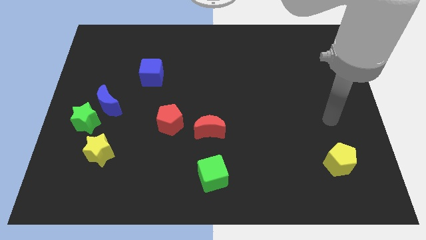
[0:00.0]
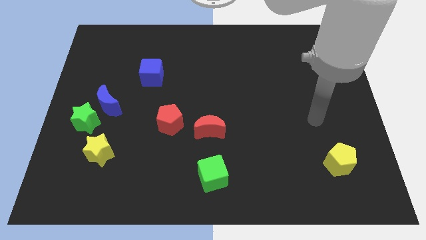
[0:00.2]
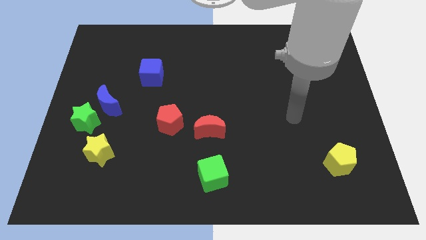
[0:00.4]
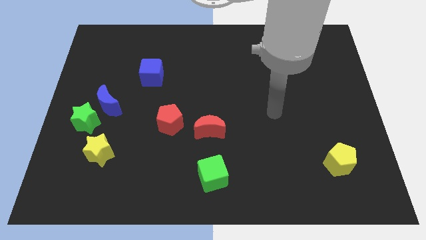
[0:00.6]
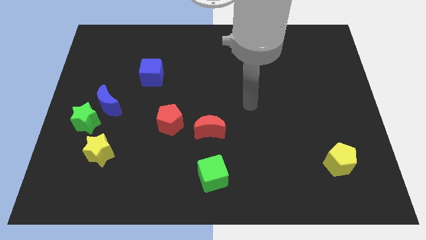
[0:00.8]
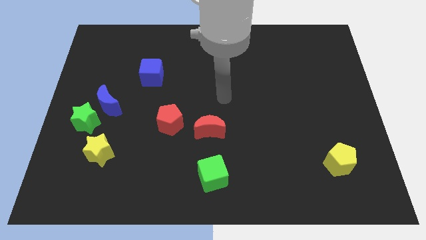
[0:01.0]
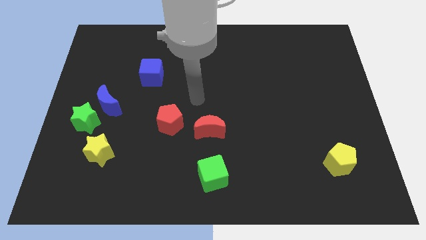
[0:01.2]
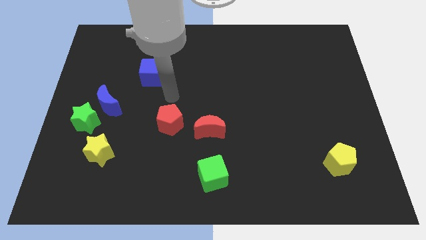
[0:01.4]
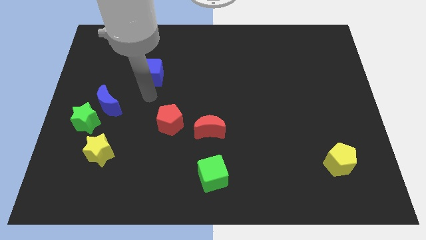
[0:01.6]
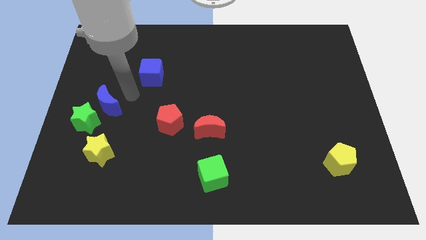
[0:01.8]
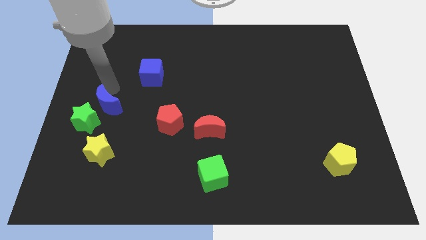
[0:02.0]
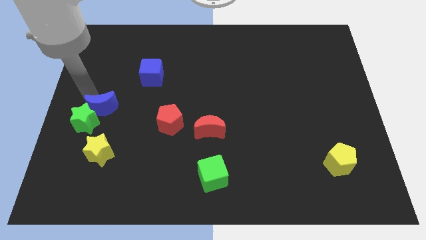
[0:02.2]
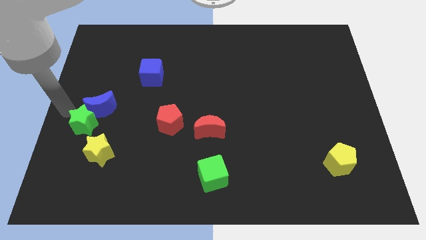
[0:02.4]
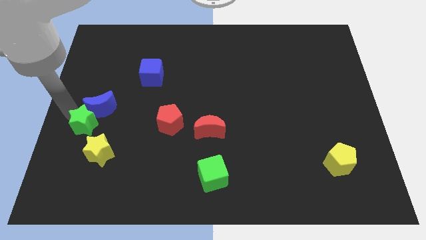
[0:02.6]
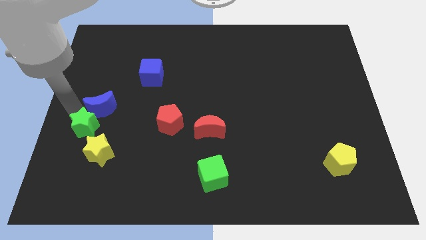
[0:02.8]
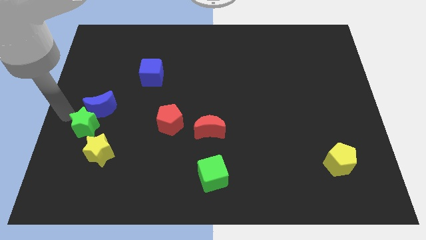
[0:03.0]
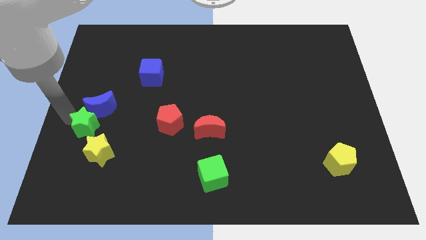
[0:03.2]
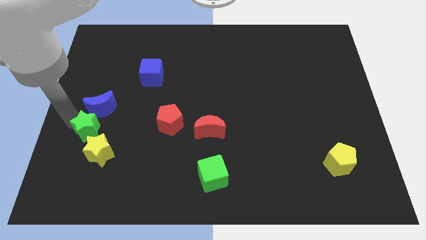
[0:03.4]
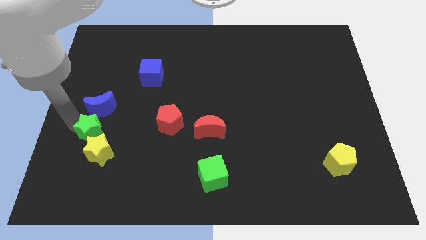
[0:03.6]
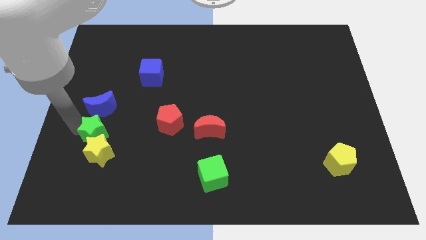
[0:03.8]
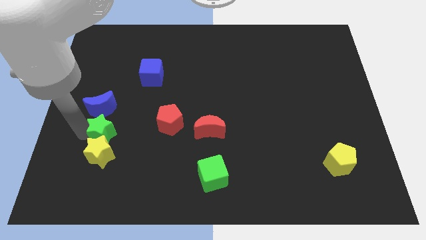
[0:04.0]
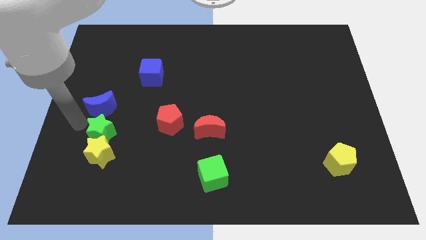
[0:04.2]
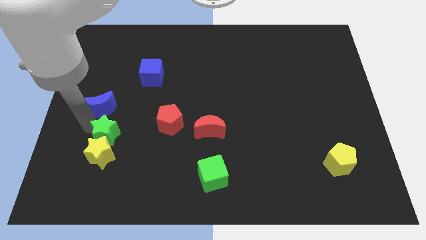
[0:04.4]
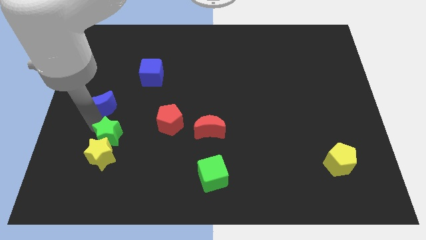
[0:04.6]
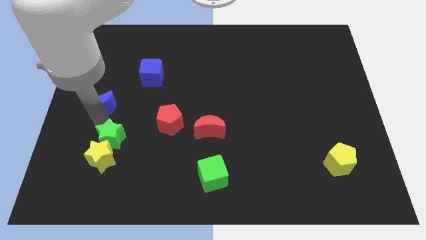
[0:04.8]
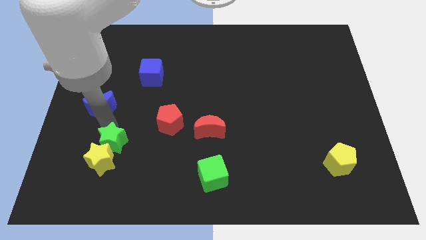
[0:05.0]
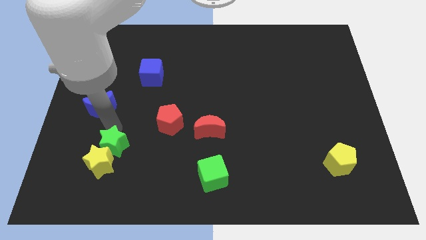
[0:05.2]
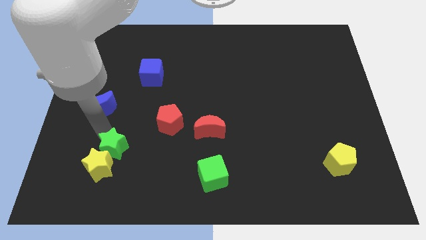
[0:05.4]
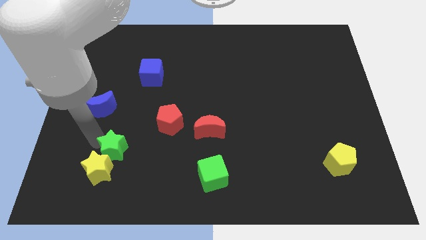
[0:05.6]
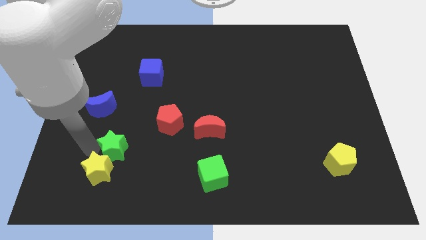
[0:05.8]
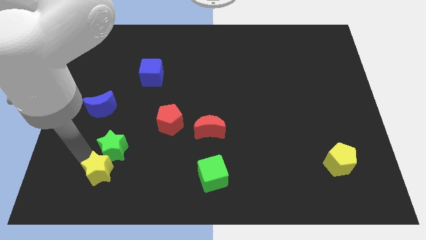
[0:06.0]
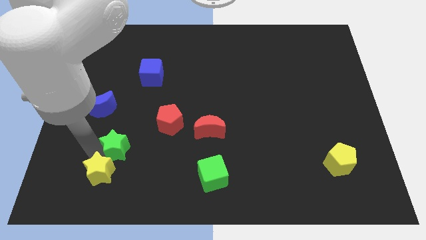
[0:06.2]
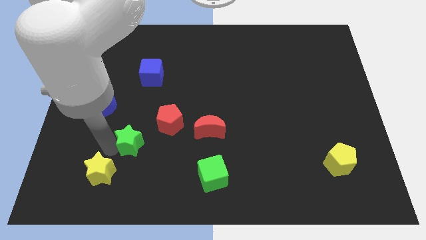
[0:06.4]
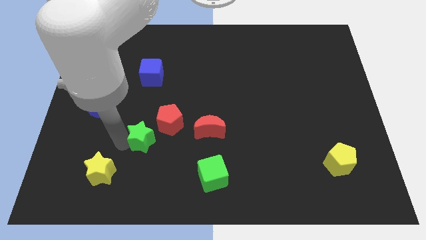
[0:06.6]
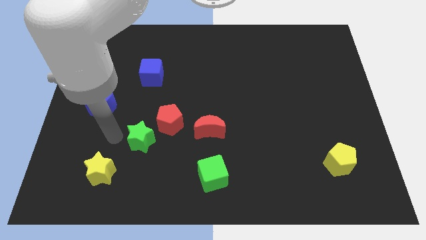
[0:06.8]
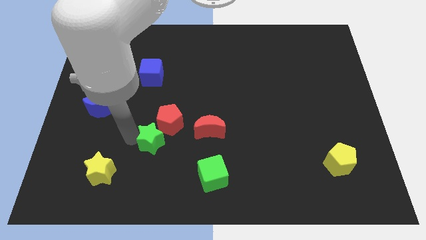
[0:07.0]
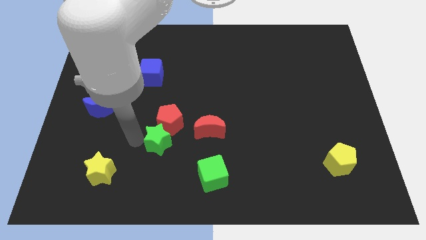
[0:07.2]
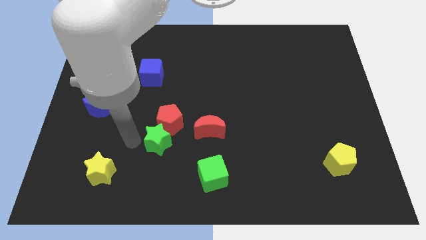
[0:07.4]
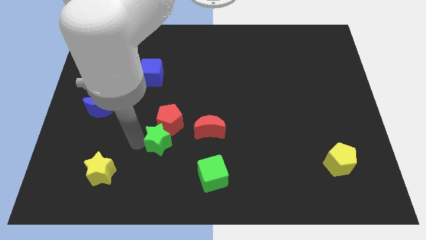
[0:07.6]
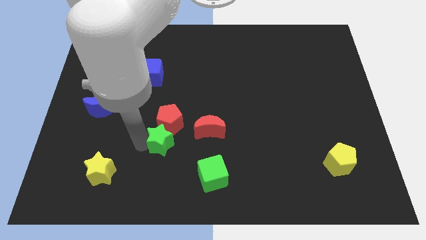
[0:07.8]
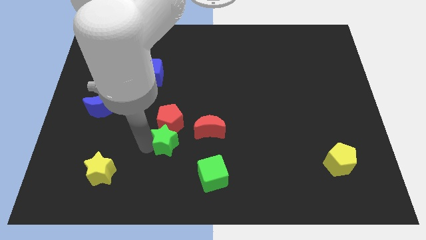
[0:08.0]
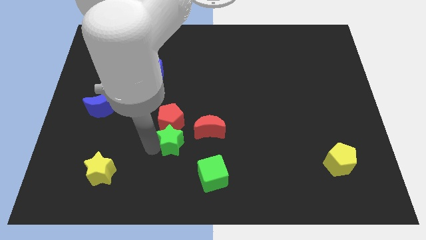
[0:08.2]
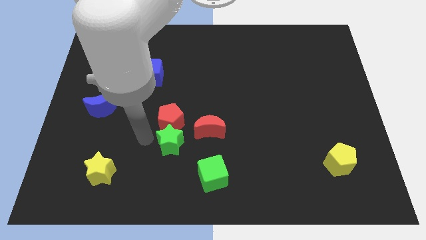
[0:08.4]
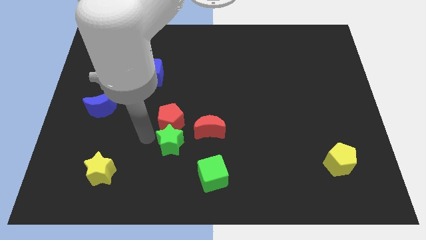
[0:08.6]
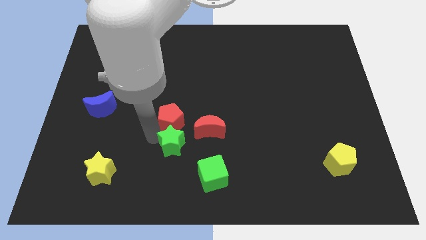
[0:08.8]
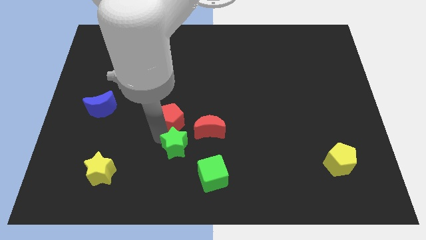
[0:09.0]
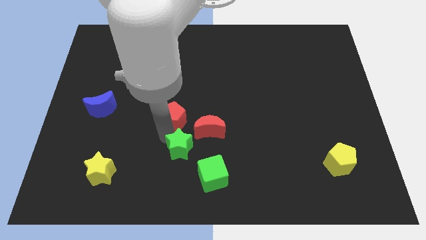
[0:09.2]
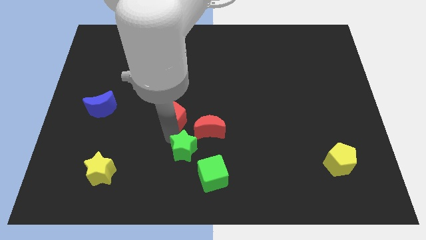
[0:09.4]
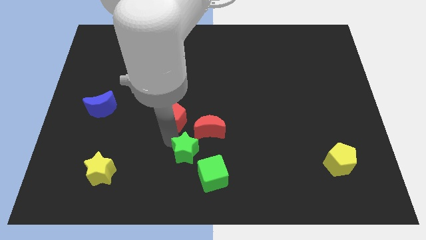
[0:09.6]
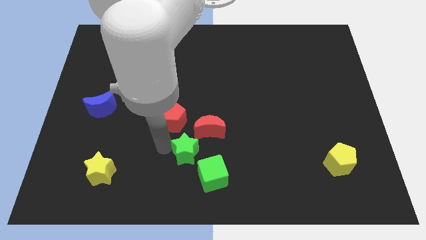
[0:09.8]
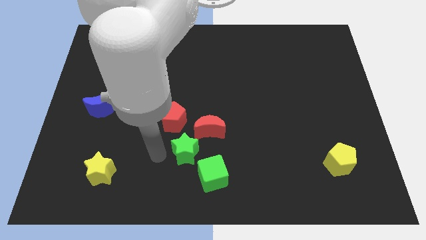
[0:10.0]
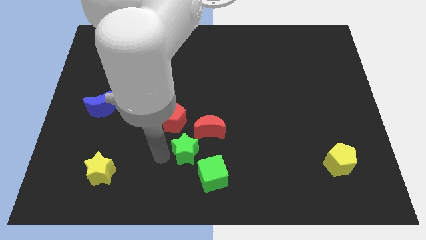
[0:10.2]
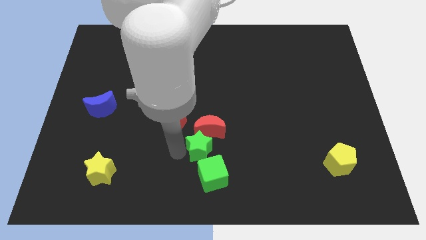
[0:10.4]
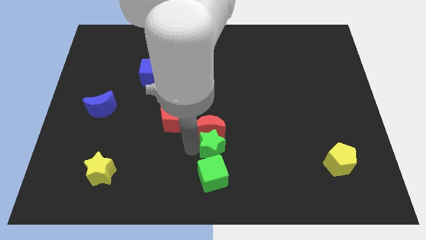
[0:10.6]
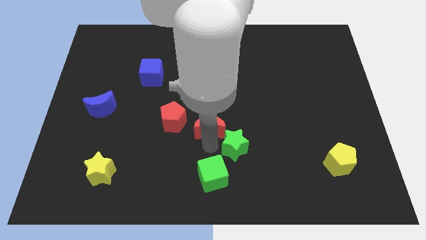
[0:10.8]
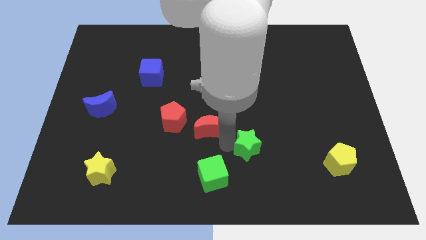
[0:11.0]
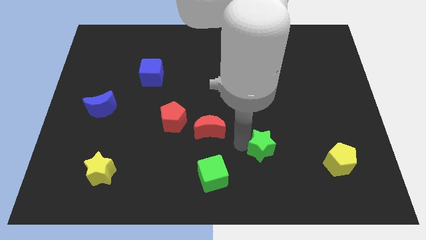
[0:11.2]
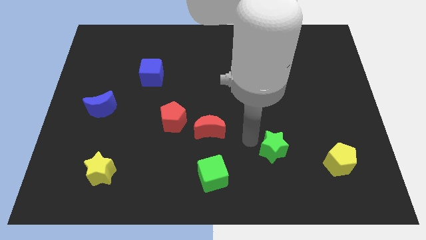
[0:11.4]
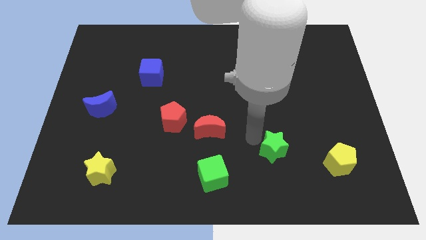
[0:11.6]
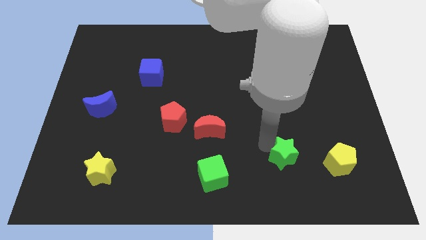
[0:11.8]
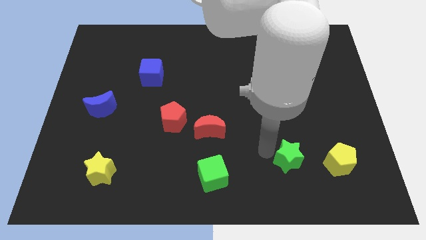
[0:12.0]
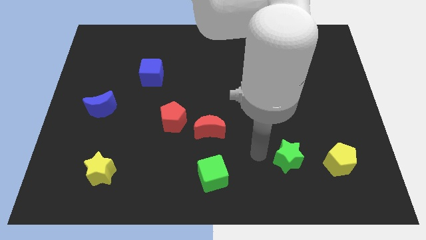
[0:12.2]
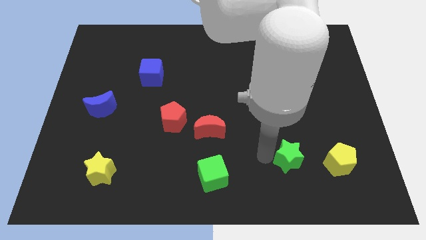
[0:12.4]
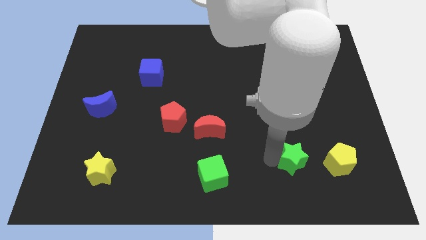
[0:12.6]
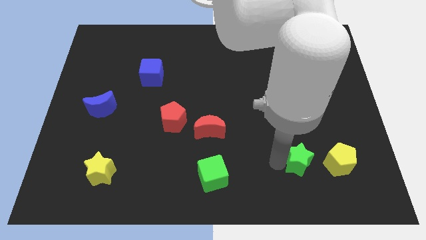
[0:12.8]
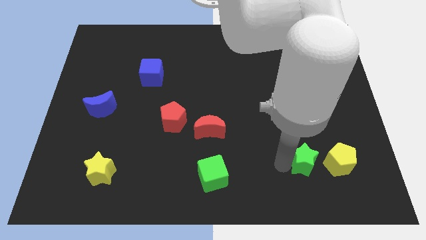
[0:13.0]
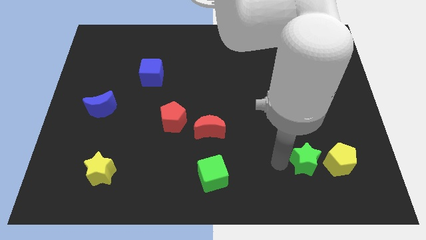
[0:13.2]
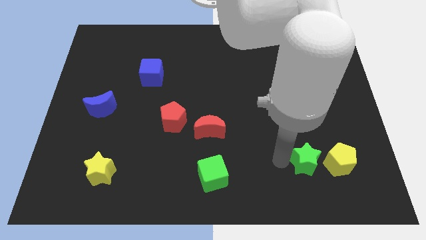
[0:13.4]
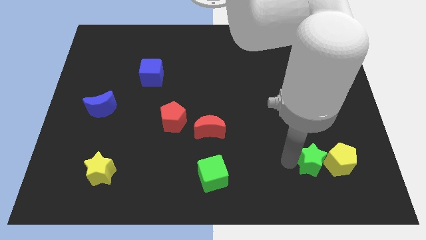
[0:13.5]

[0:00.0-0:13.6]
put the green star to the yellow pentagon

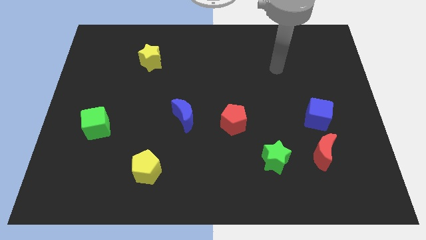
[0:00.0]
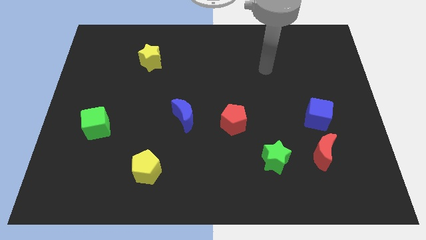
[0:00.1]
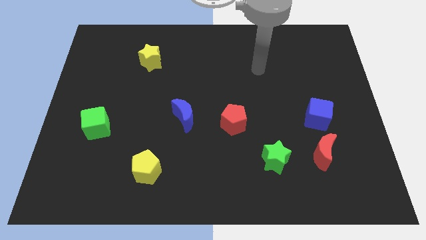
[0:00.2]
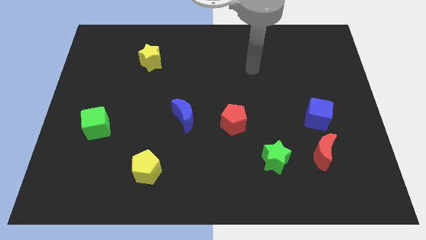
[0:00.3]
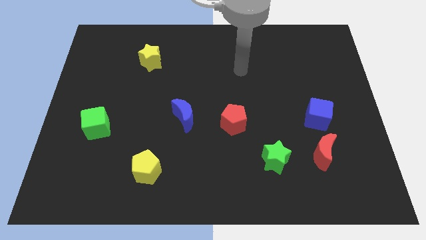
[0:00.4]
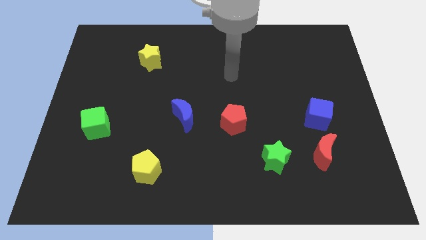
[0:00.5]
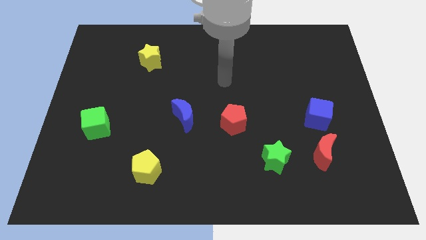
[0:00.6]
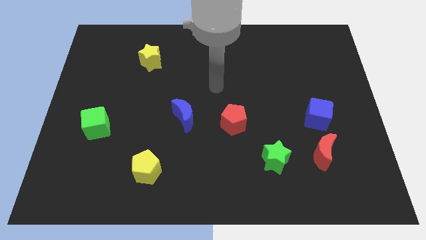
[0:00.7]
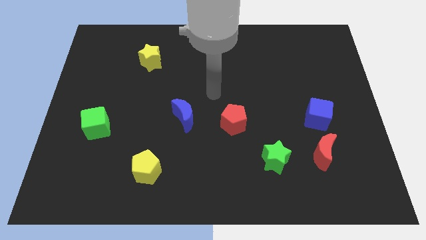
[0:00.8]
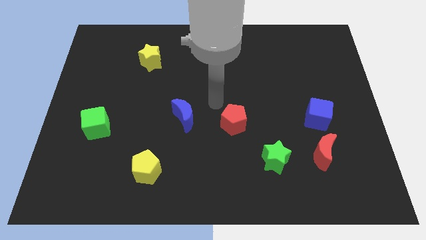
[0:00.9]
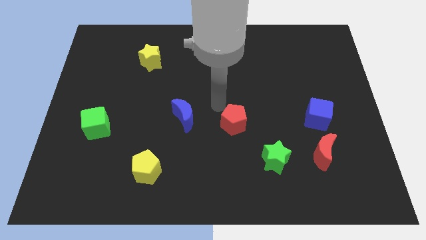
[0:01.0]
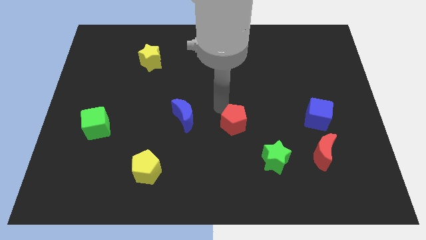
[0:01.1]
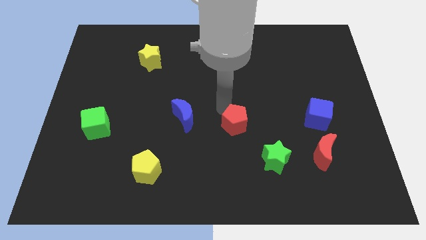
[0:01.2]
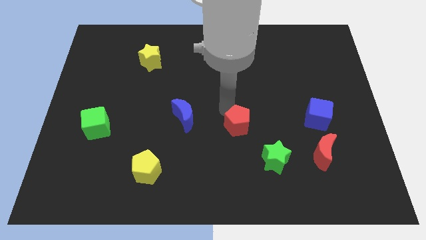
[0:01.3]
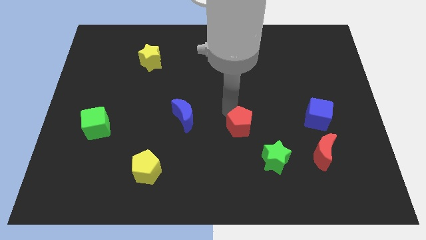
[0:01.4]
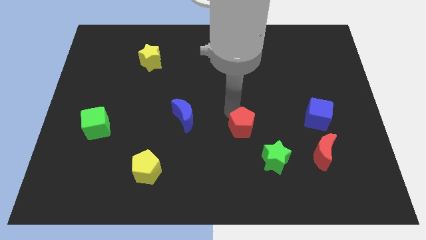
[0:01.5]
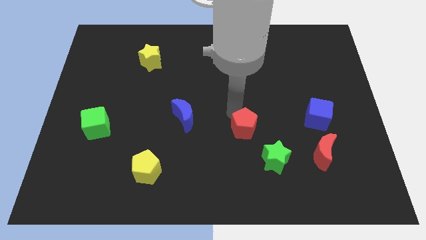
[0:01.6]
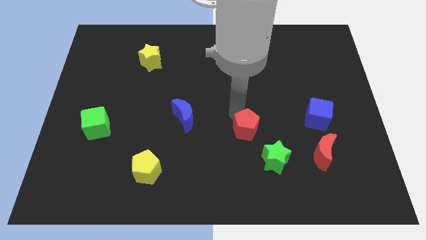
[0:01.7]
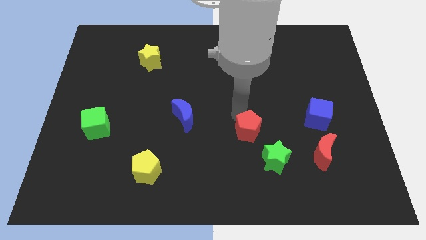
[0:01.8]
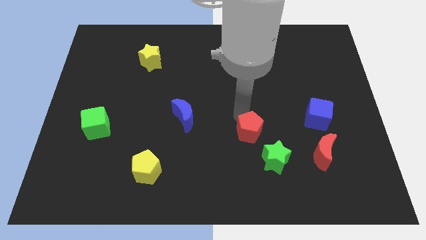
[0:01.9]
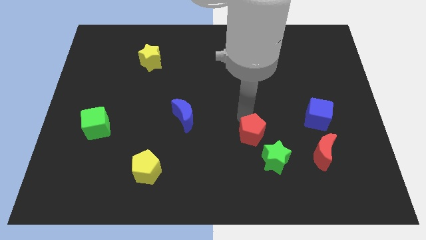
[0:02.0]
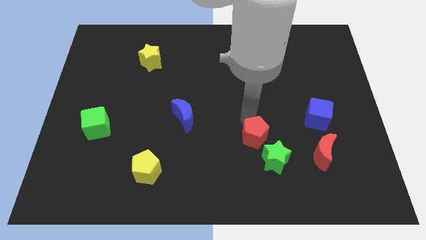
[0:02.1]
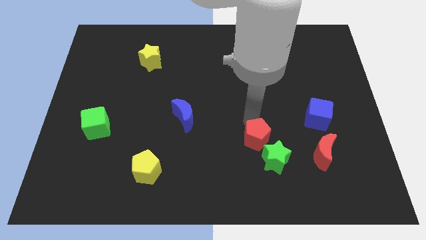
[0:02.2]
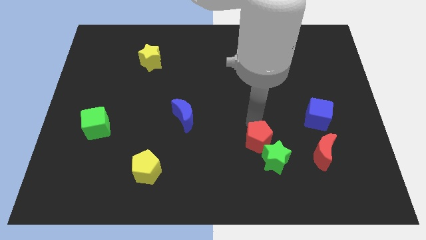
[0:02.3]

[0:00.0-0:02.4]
push the red pentagon next to the green star
